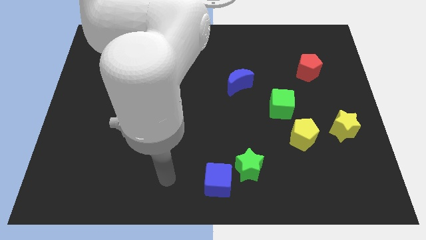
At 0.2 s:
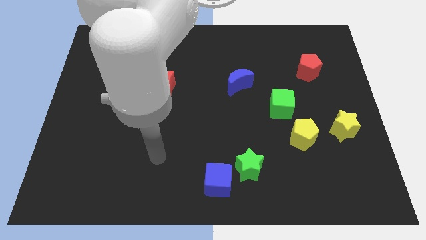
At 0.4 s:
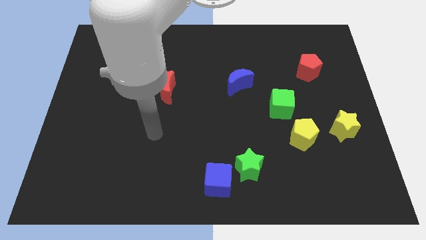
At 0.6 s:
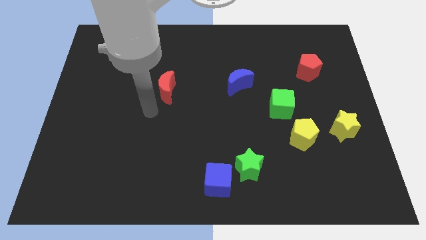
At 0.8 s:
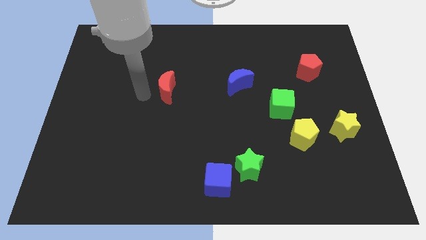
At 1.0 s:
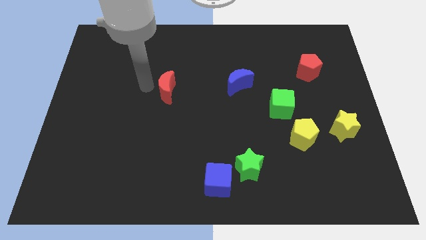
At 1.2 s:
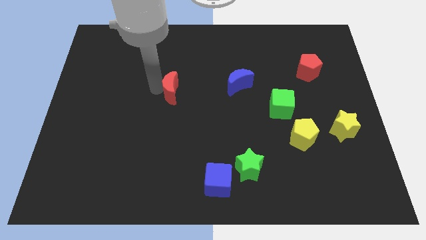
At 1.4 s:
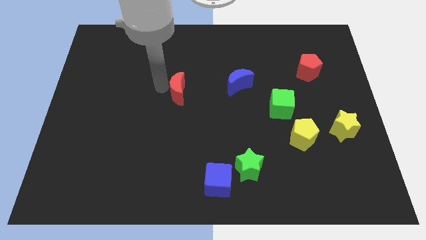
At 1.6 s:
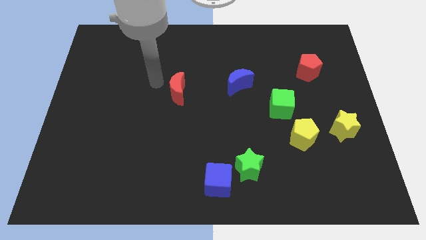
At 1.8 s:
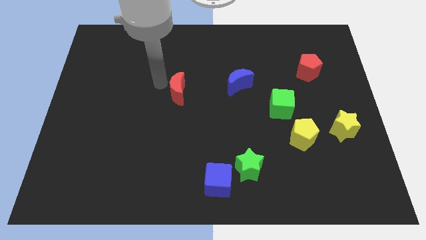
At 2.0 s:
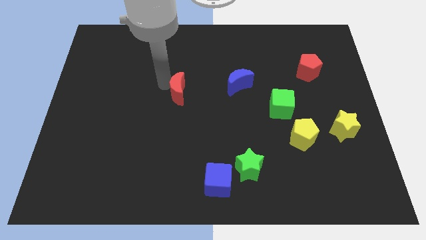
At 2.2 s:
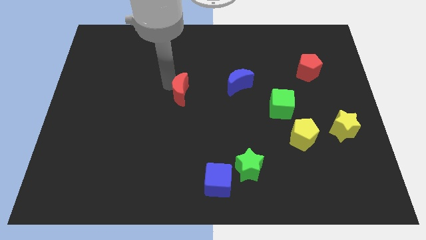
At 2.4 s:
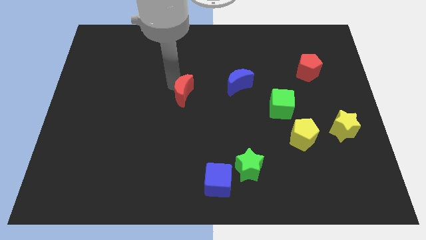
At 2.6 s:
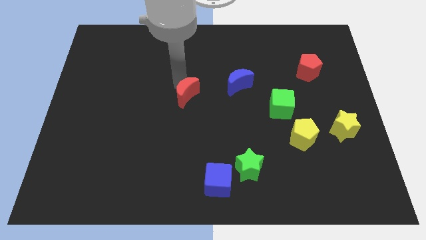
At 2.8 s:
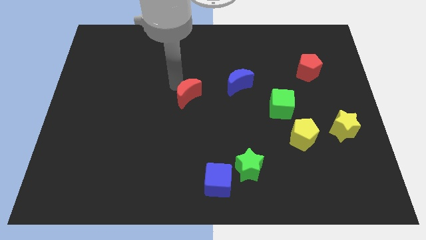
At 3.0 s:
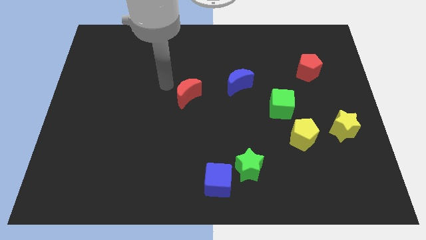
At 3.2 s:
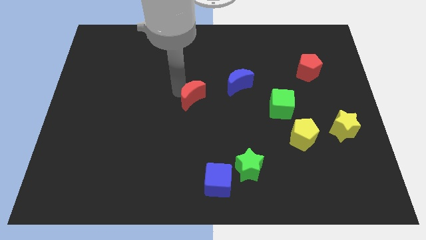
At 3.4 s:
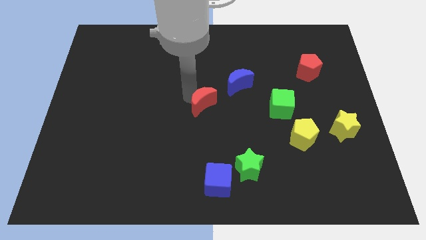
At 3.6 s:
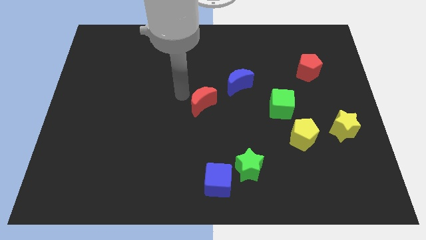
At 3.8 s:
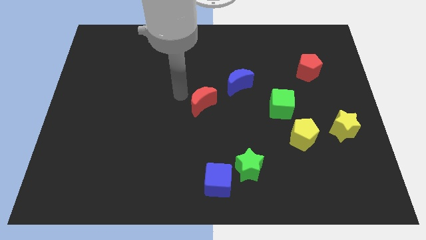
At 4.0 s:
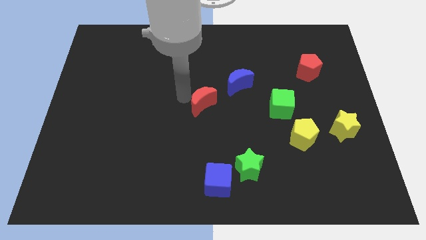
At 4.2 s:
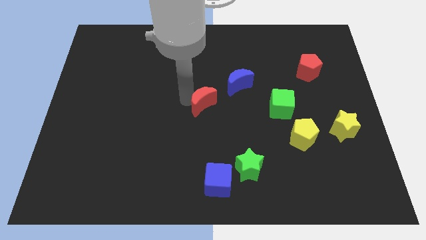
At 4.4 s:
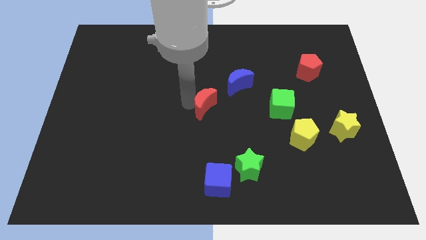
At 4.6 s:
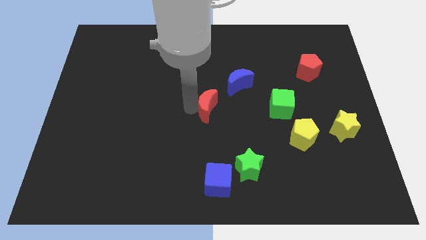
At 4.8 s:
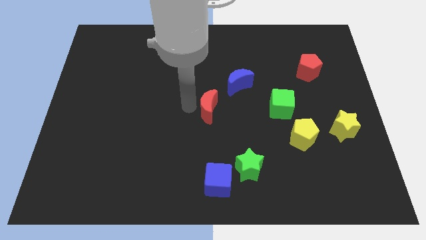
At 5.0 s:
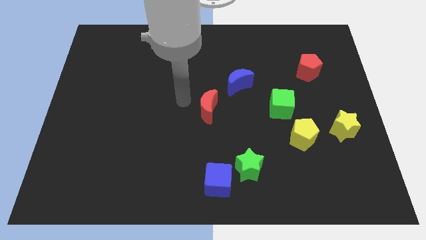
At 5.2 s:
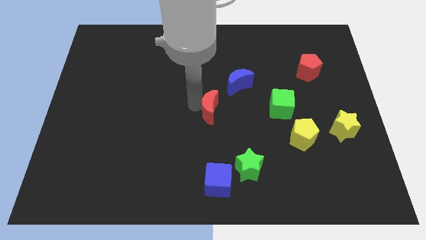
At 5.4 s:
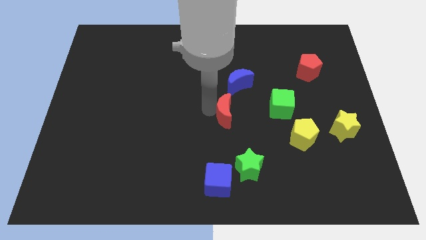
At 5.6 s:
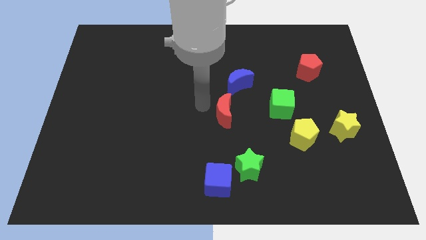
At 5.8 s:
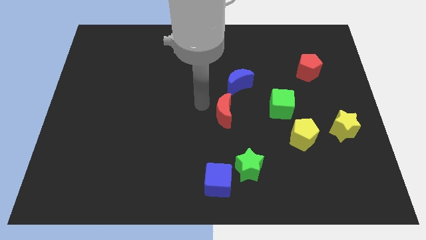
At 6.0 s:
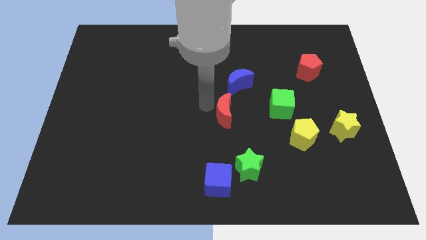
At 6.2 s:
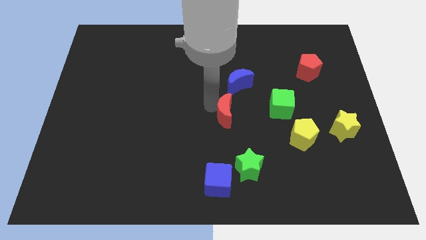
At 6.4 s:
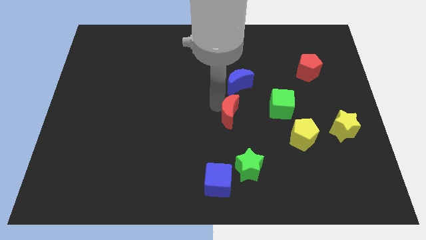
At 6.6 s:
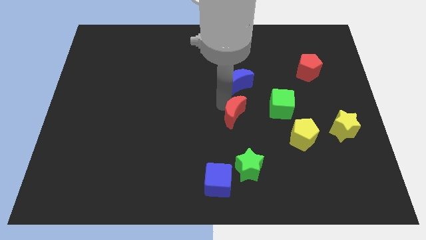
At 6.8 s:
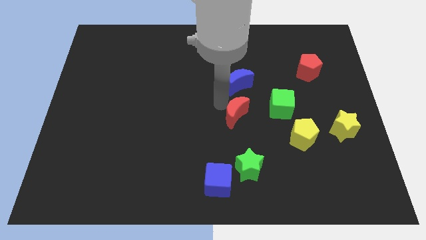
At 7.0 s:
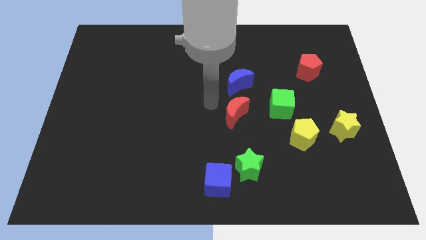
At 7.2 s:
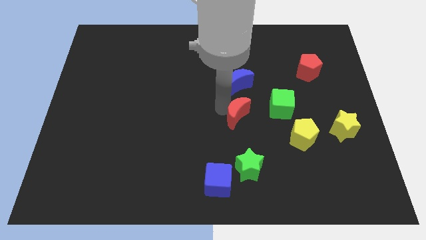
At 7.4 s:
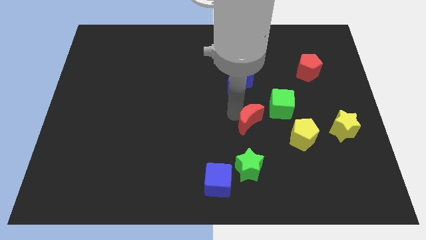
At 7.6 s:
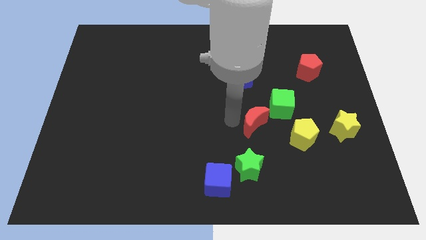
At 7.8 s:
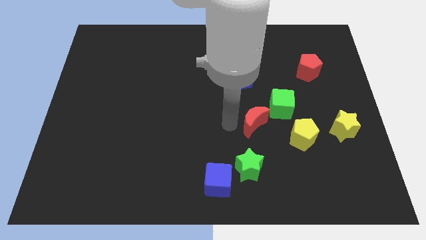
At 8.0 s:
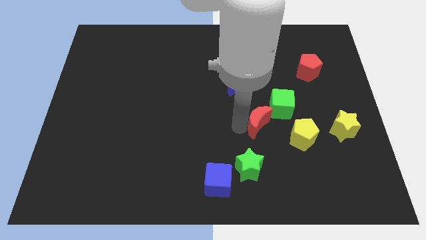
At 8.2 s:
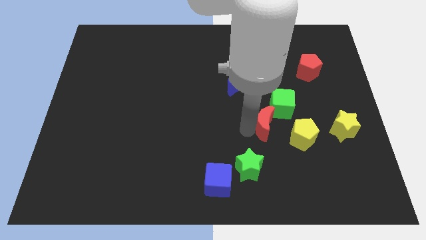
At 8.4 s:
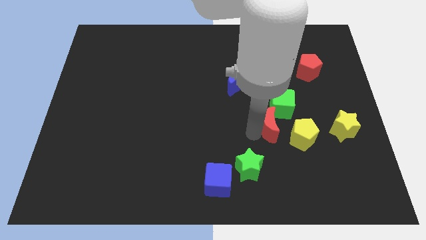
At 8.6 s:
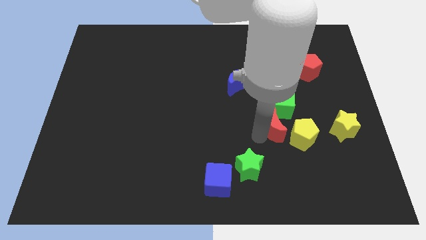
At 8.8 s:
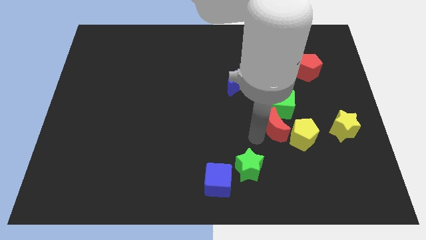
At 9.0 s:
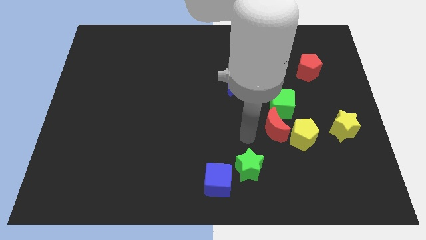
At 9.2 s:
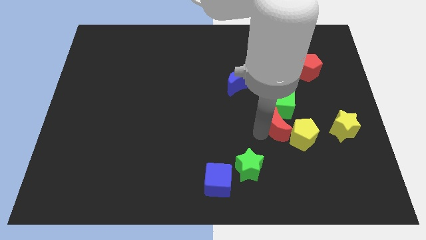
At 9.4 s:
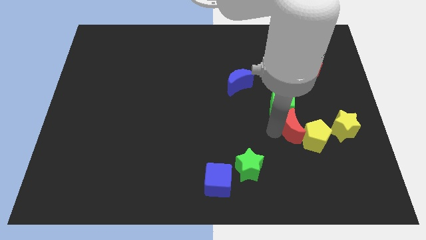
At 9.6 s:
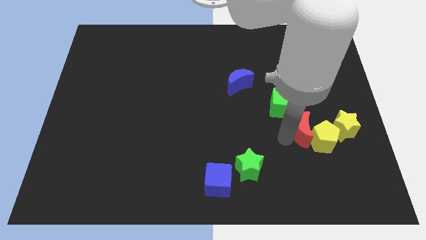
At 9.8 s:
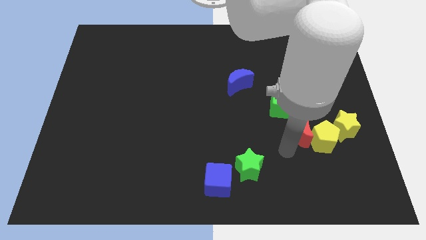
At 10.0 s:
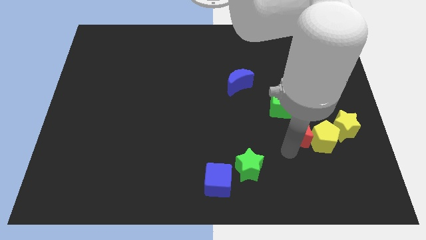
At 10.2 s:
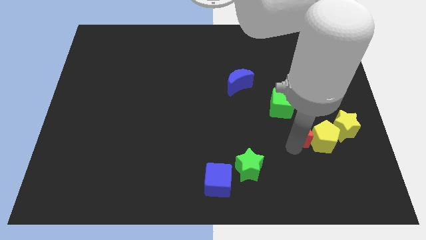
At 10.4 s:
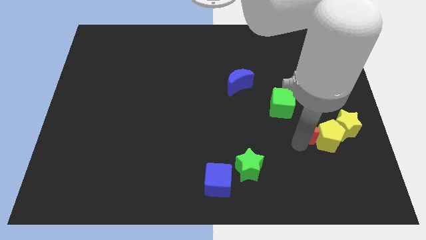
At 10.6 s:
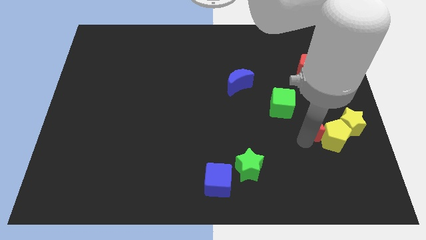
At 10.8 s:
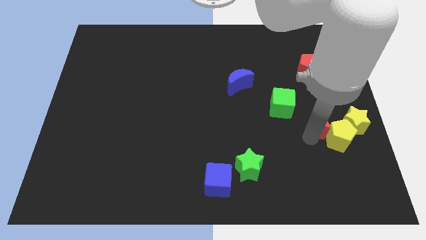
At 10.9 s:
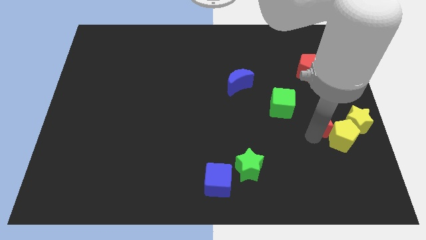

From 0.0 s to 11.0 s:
move the red moon to the top left side of the yellow star

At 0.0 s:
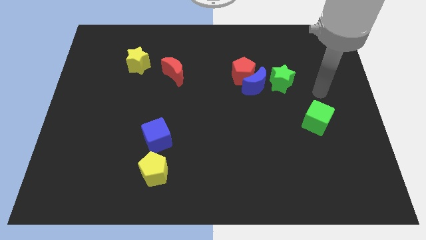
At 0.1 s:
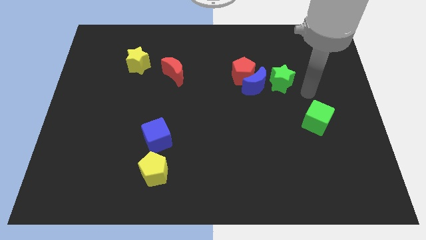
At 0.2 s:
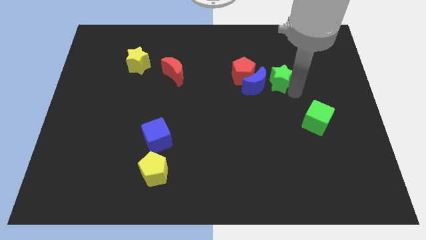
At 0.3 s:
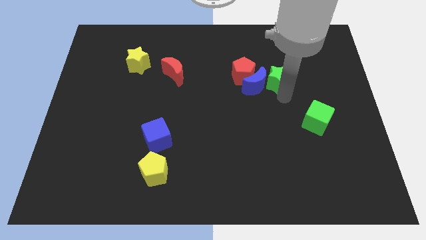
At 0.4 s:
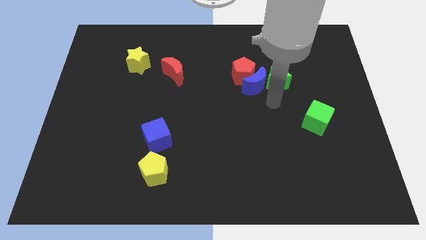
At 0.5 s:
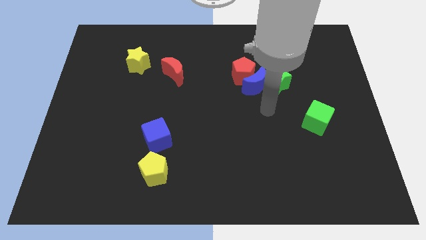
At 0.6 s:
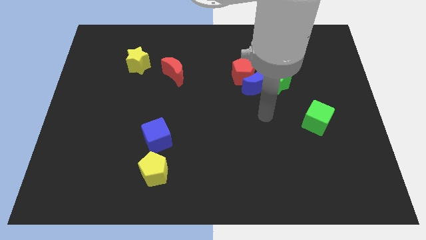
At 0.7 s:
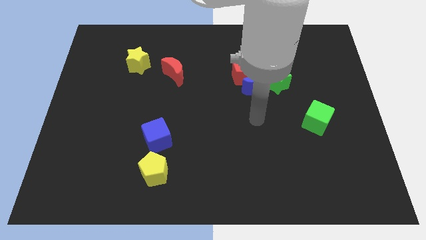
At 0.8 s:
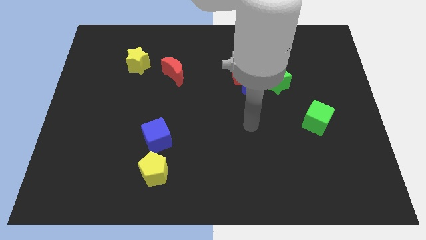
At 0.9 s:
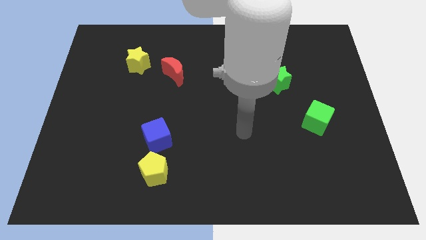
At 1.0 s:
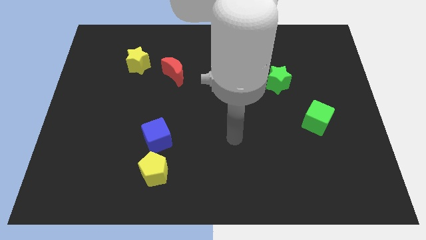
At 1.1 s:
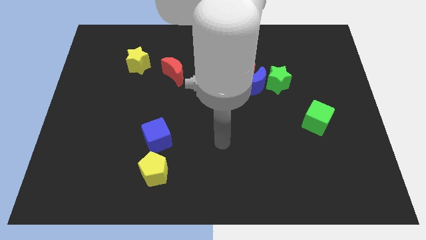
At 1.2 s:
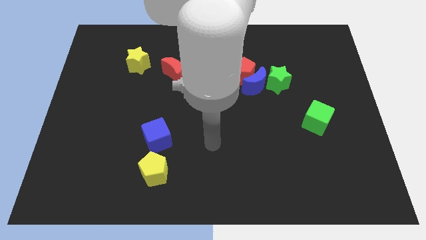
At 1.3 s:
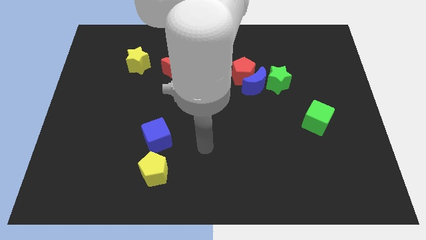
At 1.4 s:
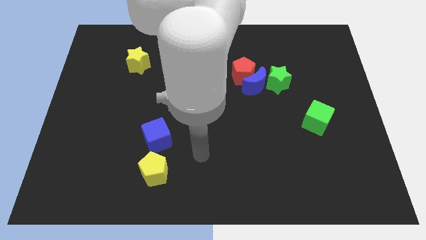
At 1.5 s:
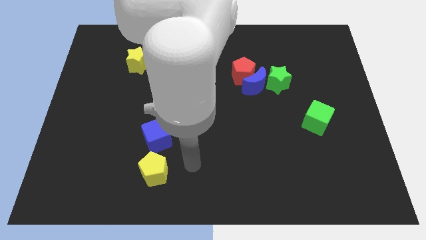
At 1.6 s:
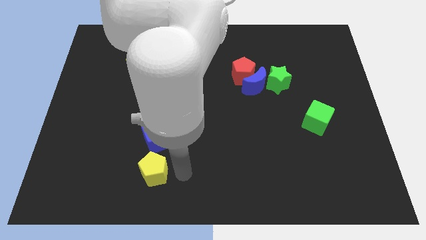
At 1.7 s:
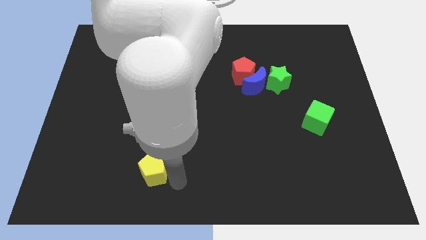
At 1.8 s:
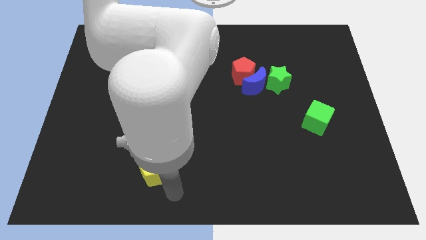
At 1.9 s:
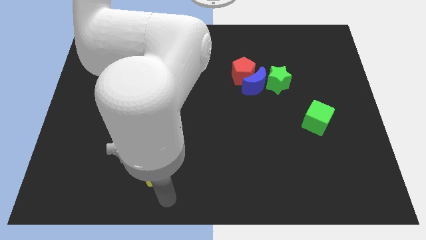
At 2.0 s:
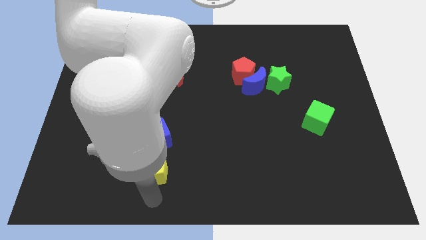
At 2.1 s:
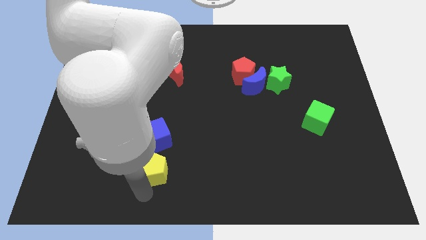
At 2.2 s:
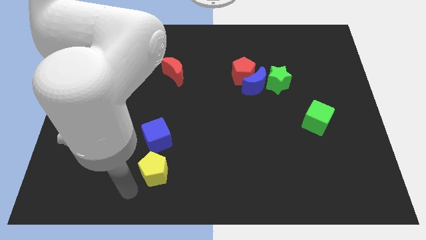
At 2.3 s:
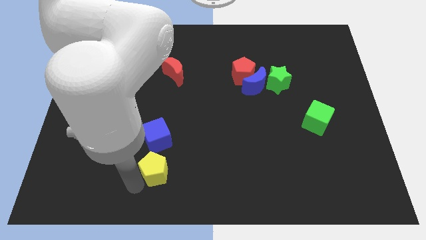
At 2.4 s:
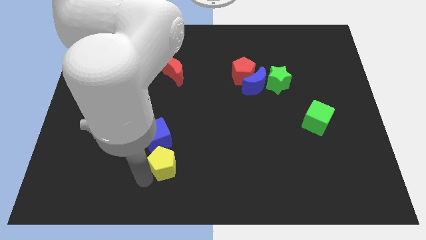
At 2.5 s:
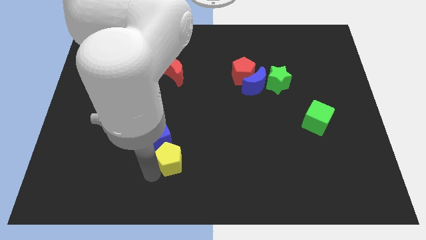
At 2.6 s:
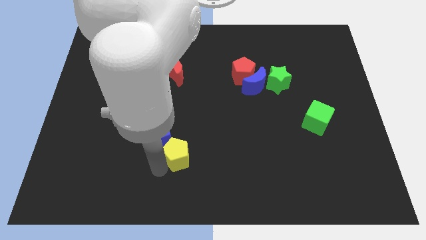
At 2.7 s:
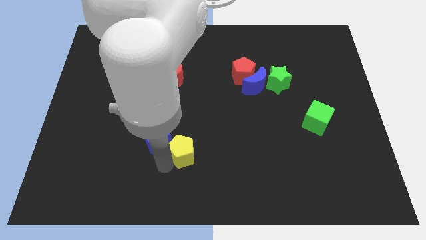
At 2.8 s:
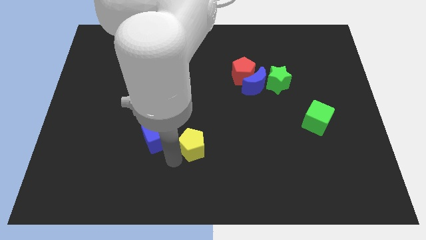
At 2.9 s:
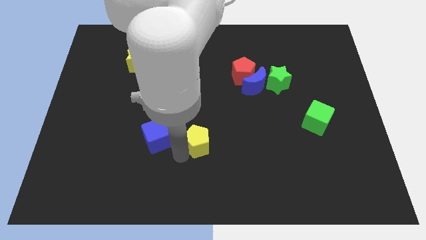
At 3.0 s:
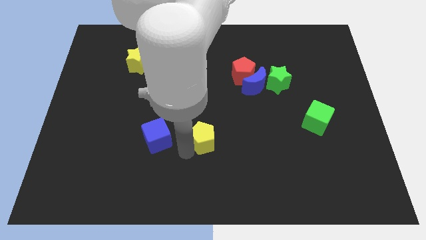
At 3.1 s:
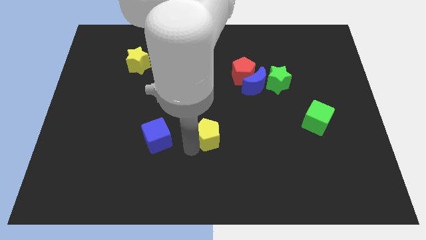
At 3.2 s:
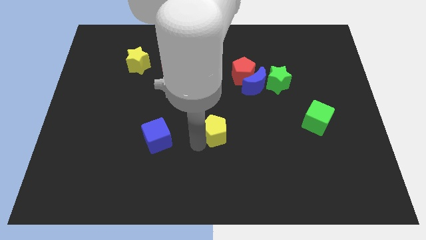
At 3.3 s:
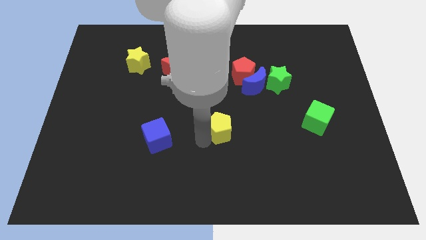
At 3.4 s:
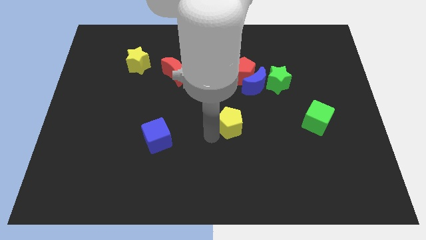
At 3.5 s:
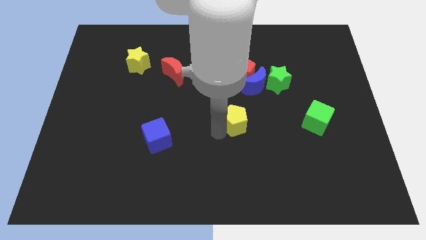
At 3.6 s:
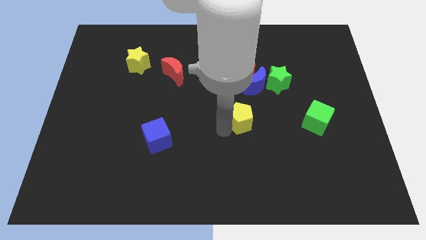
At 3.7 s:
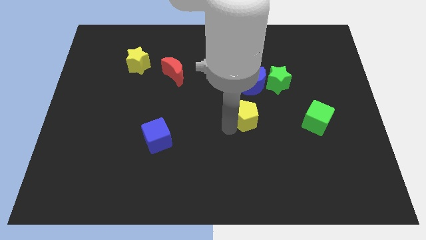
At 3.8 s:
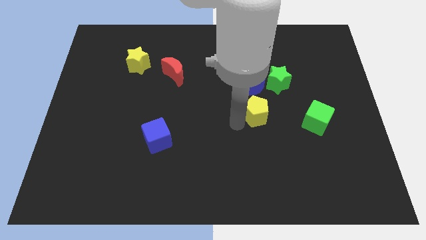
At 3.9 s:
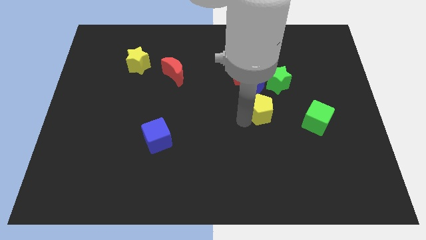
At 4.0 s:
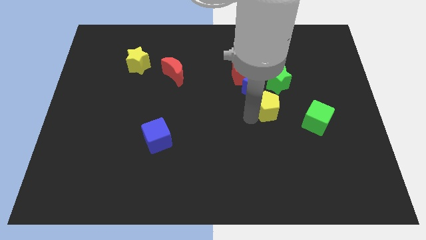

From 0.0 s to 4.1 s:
slide the yellow pentagon diagonally down and to the right of the blue moon
